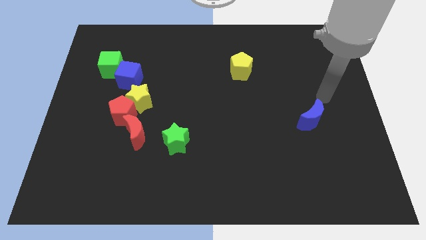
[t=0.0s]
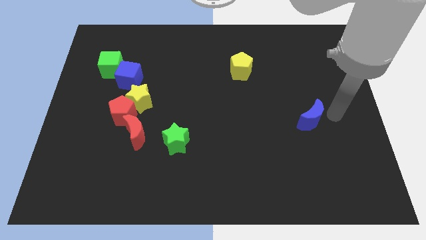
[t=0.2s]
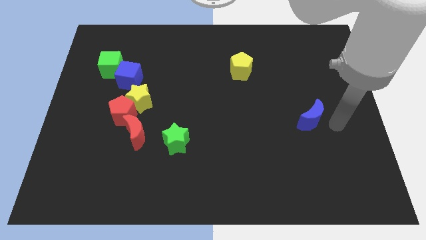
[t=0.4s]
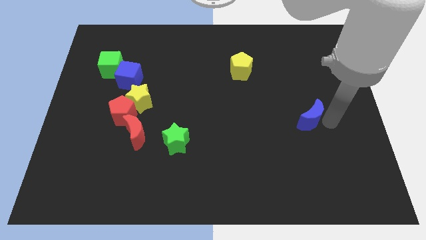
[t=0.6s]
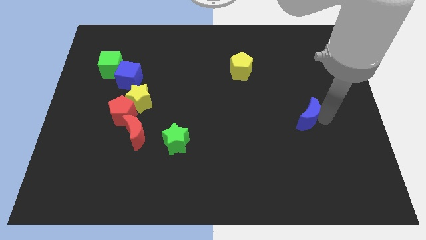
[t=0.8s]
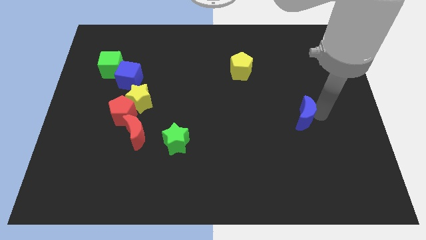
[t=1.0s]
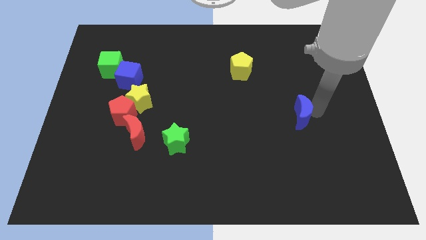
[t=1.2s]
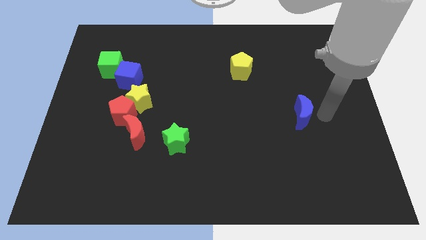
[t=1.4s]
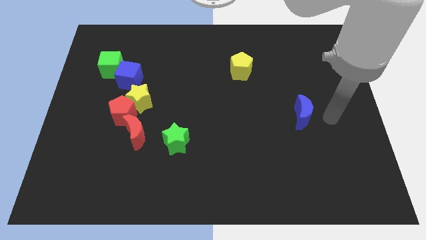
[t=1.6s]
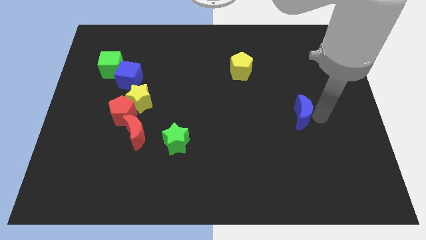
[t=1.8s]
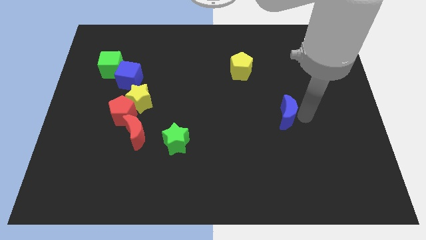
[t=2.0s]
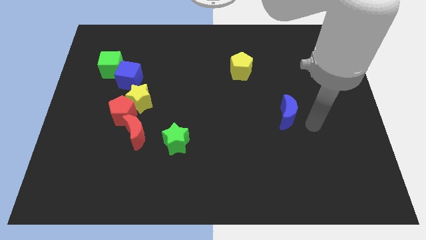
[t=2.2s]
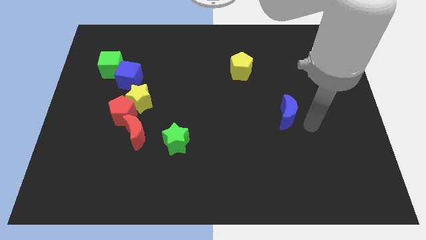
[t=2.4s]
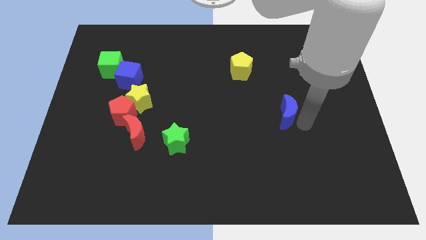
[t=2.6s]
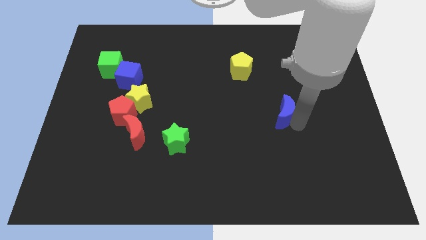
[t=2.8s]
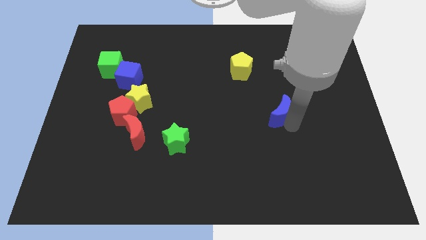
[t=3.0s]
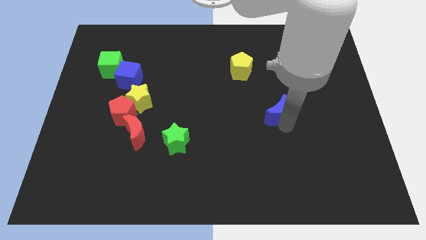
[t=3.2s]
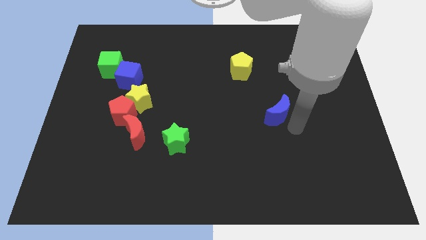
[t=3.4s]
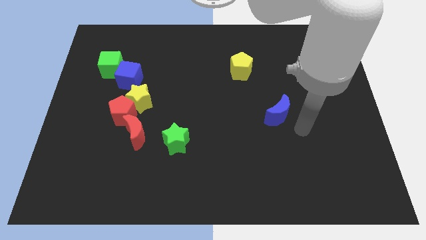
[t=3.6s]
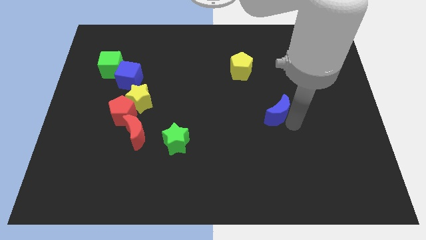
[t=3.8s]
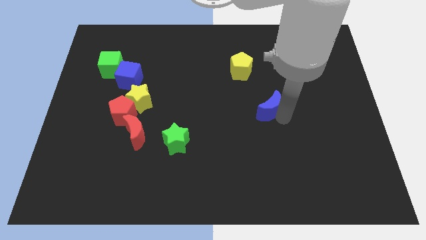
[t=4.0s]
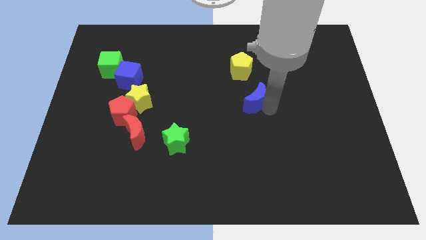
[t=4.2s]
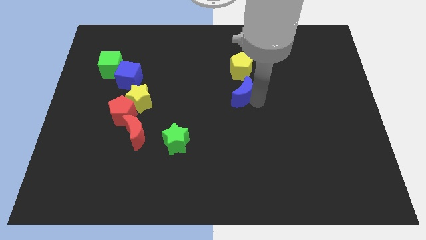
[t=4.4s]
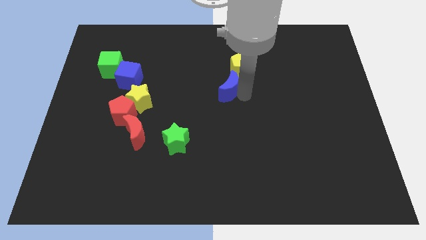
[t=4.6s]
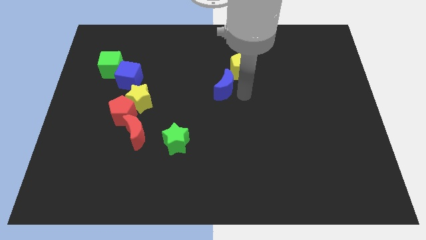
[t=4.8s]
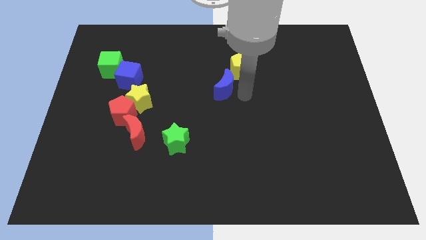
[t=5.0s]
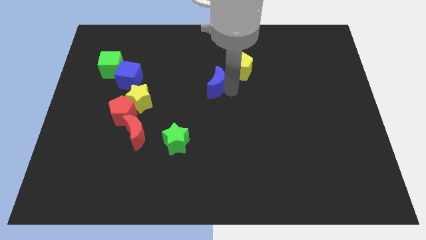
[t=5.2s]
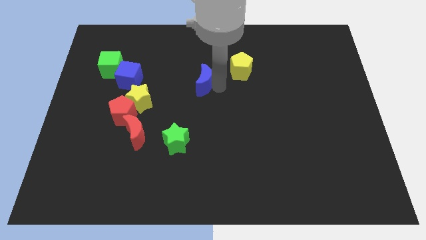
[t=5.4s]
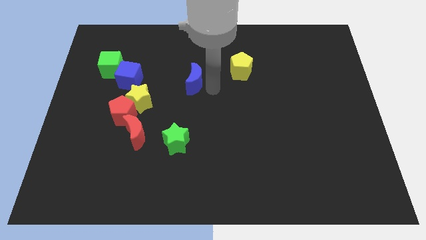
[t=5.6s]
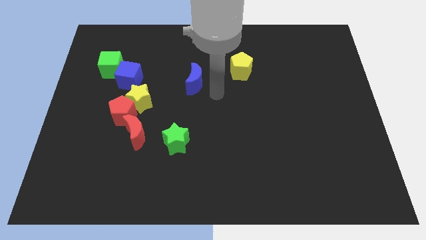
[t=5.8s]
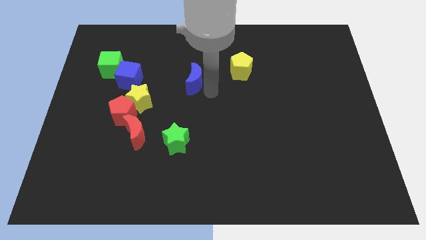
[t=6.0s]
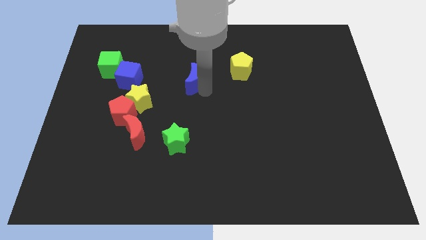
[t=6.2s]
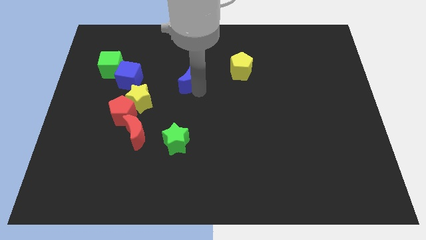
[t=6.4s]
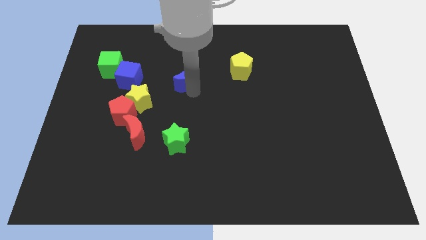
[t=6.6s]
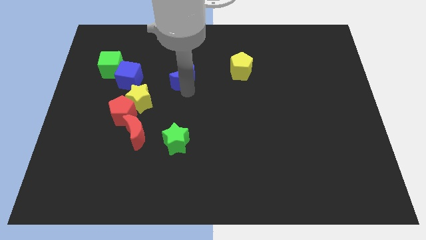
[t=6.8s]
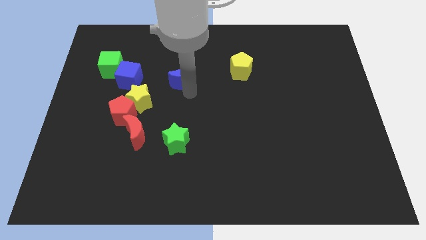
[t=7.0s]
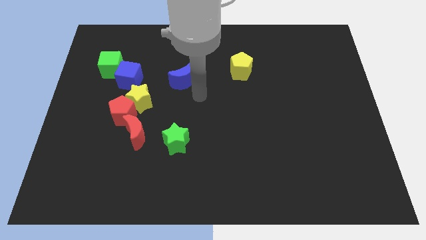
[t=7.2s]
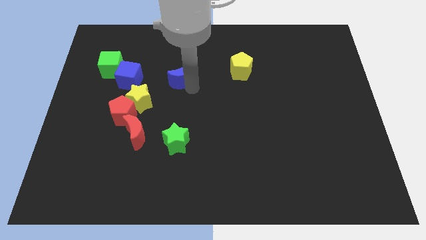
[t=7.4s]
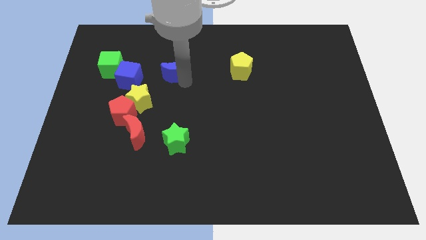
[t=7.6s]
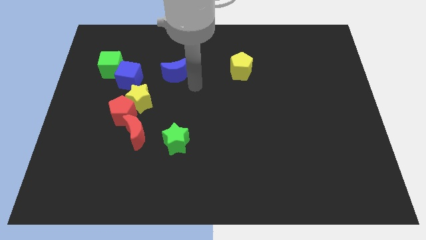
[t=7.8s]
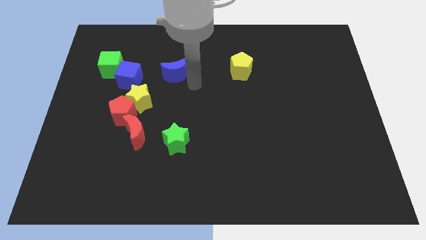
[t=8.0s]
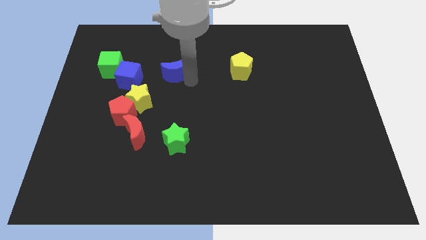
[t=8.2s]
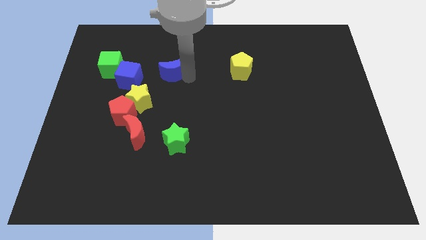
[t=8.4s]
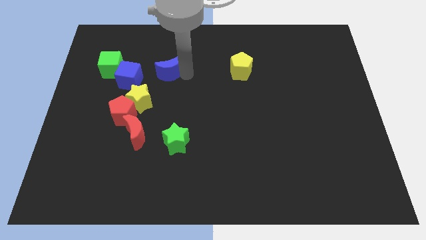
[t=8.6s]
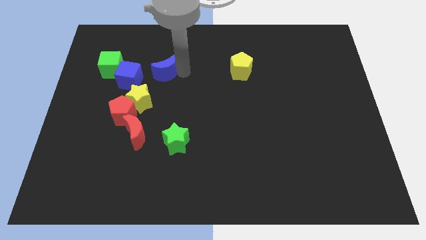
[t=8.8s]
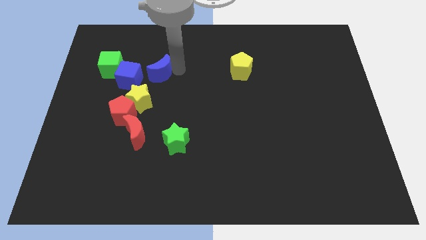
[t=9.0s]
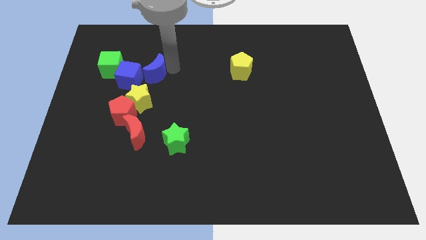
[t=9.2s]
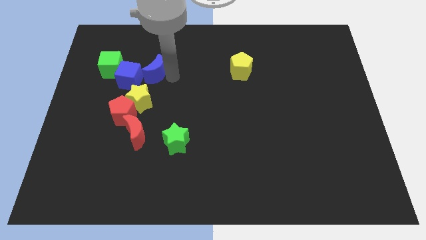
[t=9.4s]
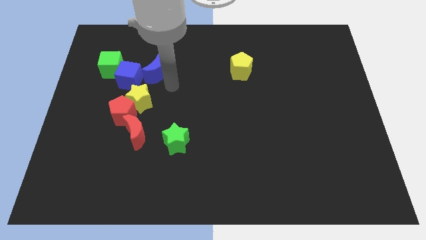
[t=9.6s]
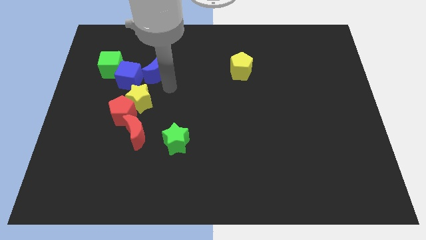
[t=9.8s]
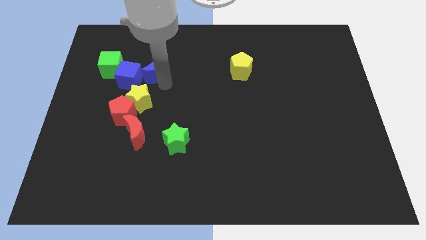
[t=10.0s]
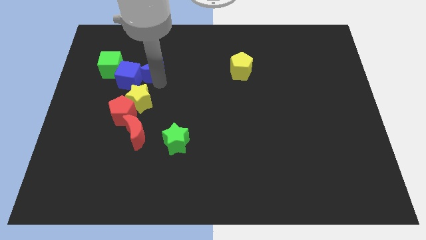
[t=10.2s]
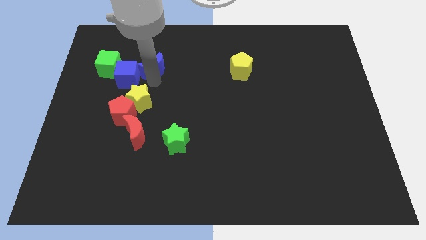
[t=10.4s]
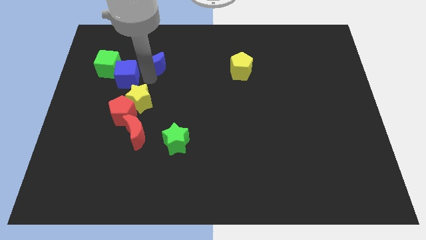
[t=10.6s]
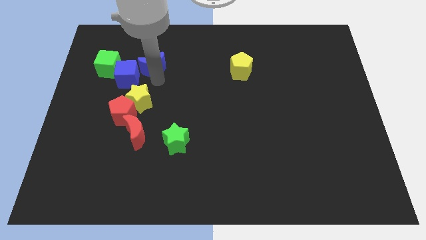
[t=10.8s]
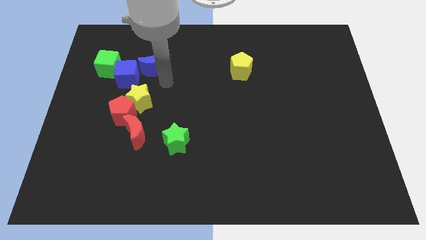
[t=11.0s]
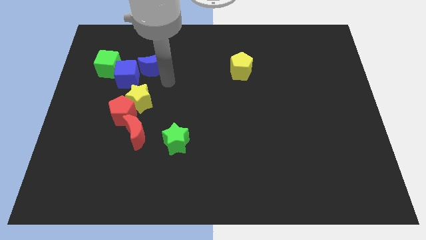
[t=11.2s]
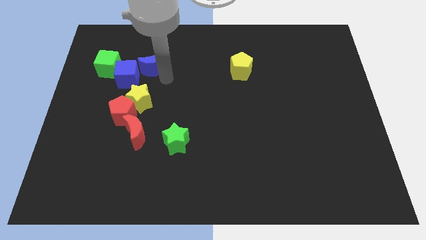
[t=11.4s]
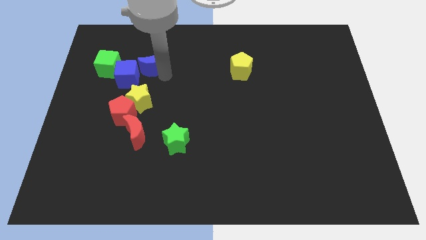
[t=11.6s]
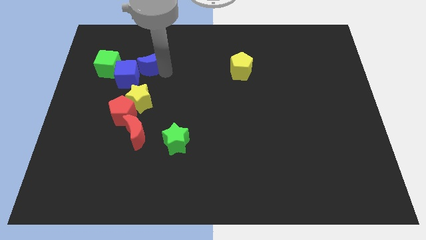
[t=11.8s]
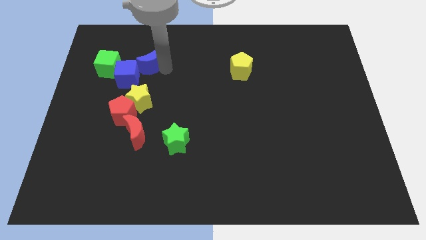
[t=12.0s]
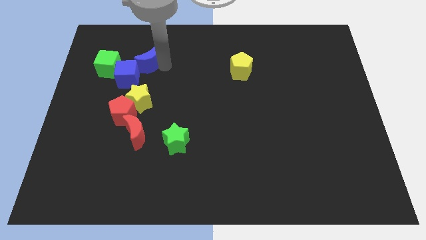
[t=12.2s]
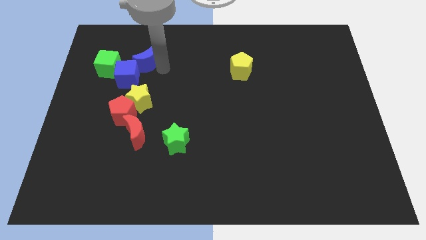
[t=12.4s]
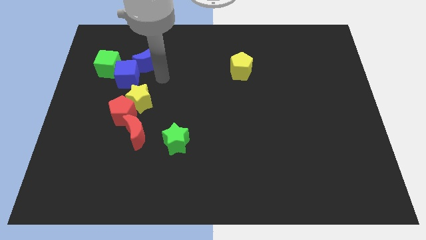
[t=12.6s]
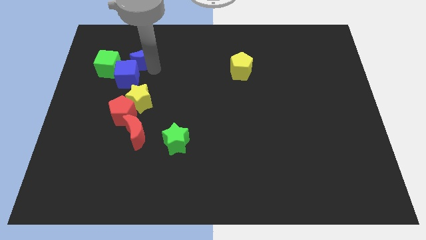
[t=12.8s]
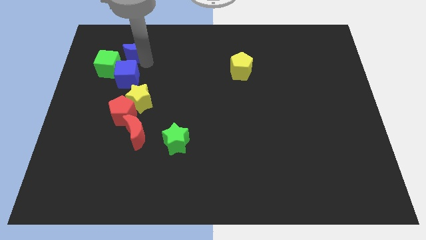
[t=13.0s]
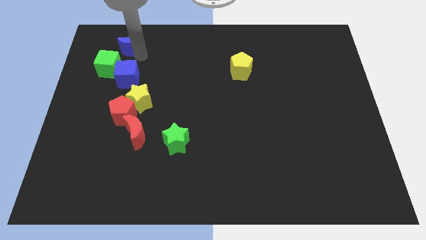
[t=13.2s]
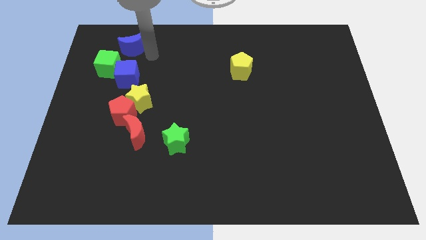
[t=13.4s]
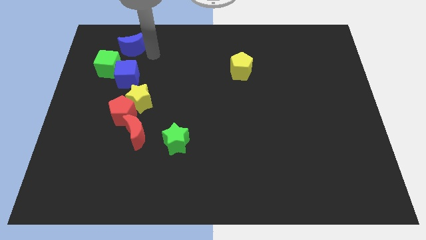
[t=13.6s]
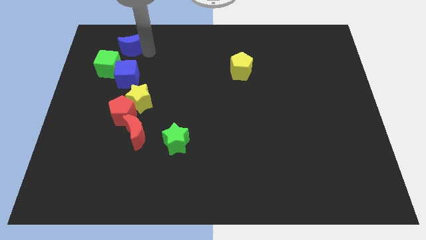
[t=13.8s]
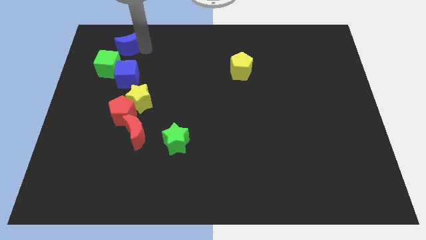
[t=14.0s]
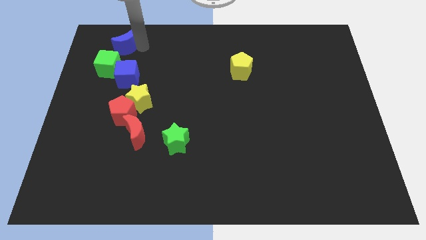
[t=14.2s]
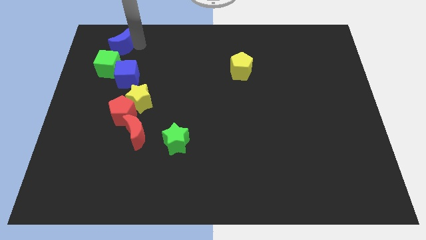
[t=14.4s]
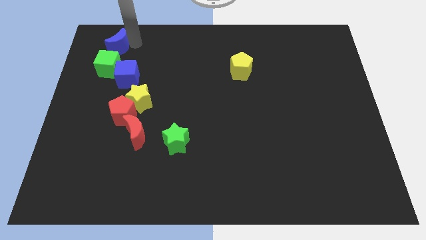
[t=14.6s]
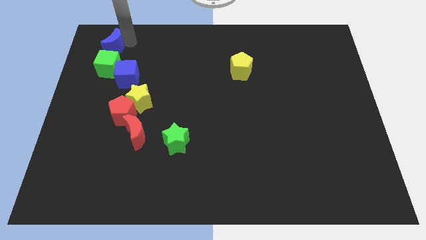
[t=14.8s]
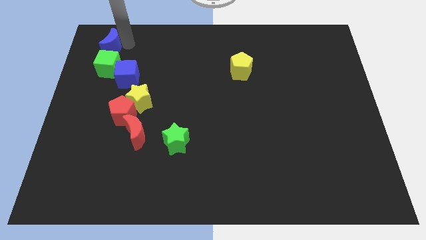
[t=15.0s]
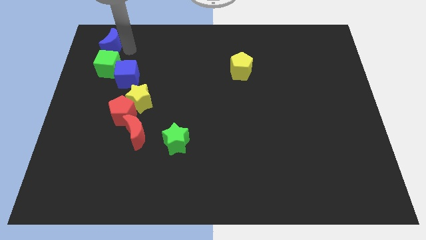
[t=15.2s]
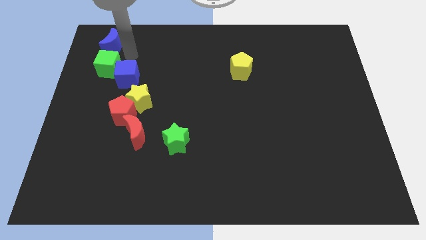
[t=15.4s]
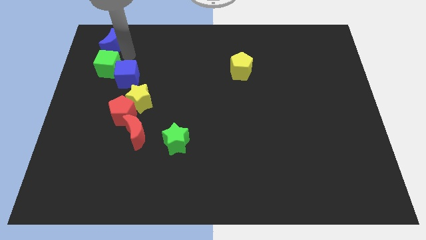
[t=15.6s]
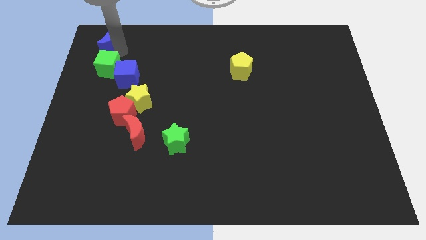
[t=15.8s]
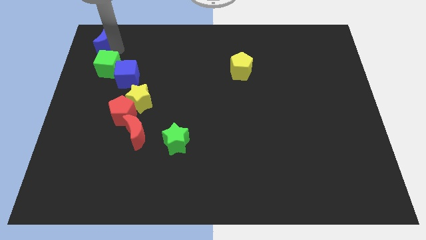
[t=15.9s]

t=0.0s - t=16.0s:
put the blue moon to the upper left corner
